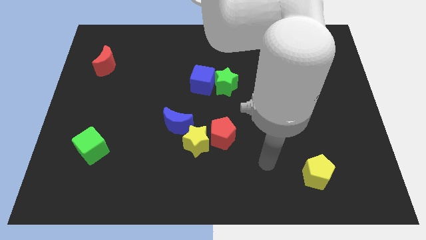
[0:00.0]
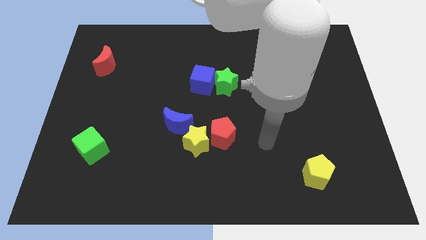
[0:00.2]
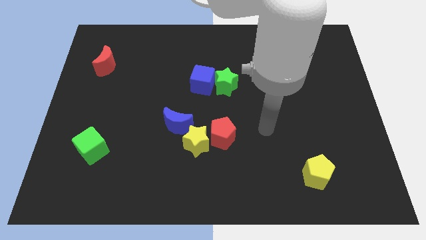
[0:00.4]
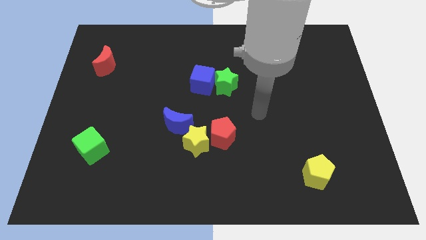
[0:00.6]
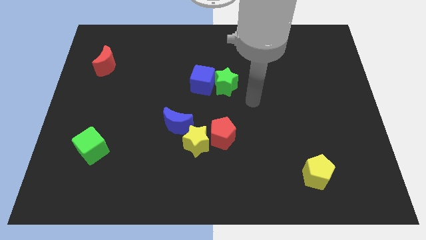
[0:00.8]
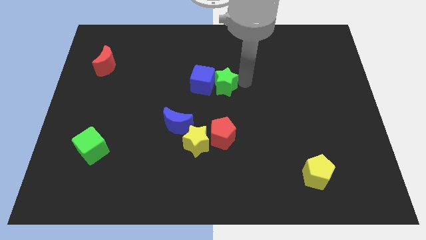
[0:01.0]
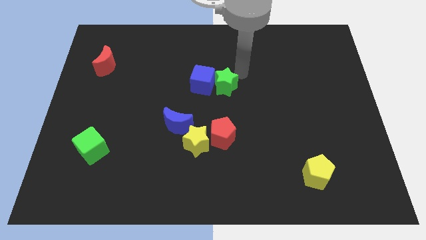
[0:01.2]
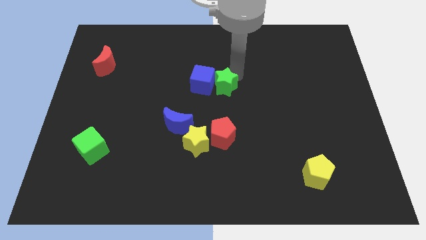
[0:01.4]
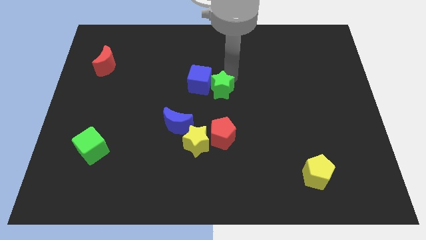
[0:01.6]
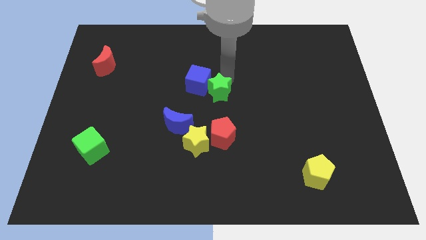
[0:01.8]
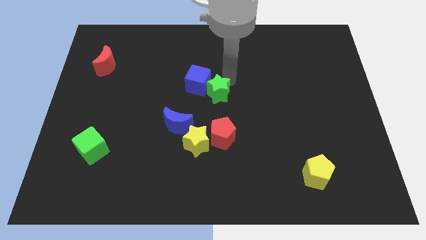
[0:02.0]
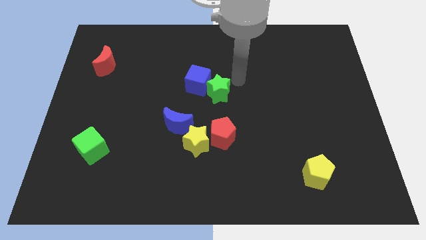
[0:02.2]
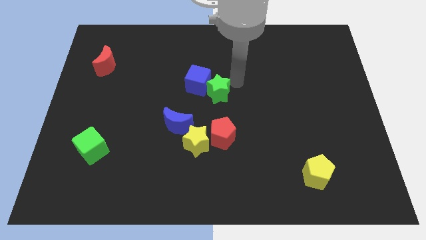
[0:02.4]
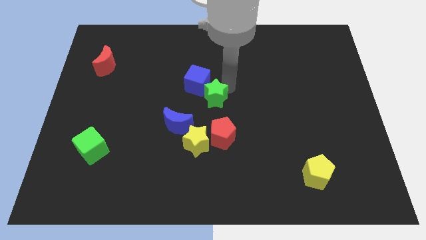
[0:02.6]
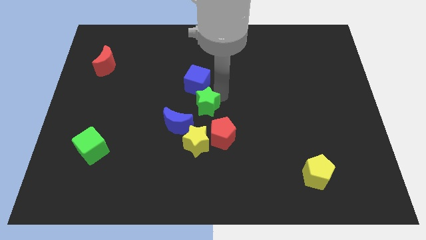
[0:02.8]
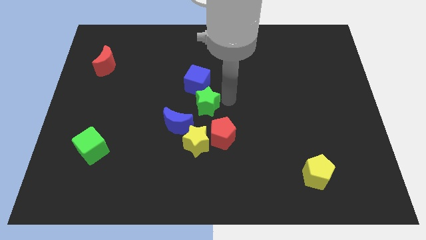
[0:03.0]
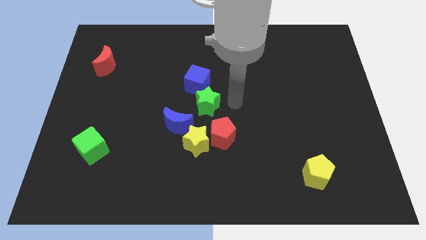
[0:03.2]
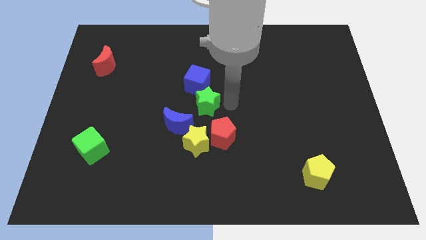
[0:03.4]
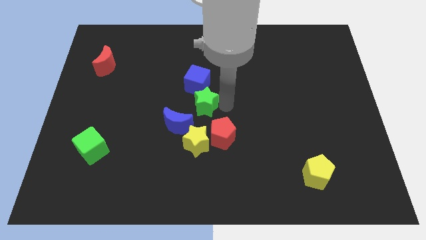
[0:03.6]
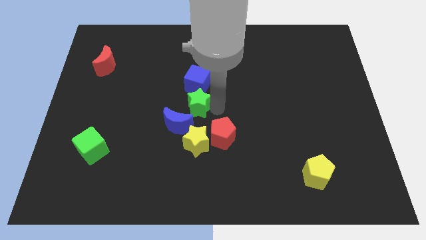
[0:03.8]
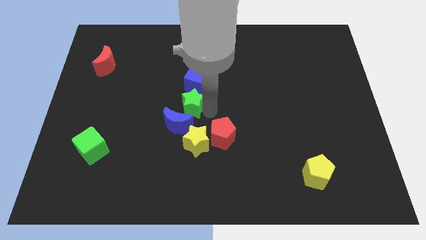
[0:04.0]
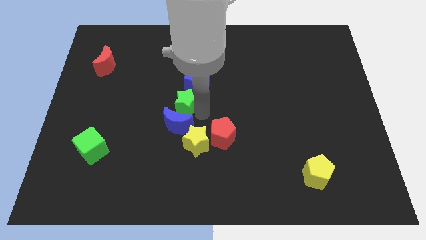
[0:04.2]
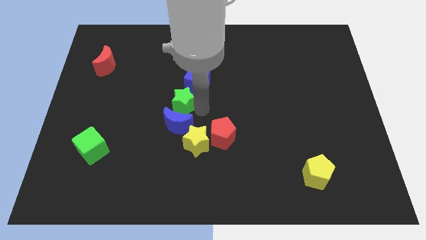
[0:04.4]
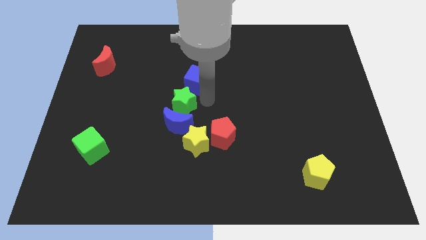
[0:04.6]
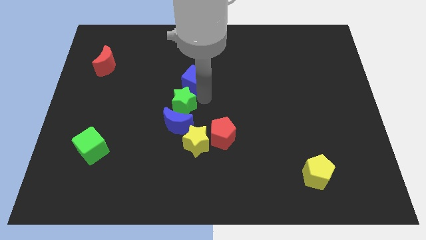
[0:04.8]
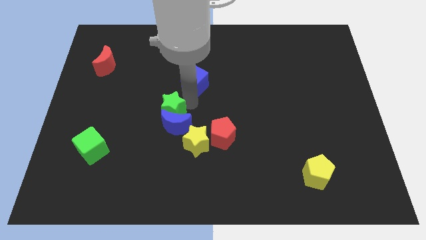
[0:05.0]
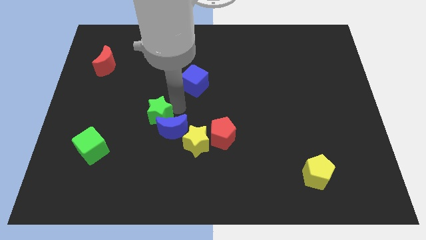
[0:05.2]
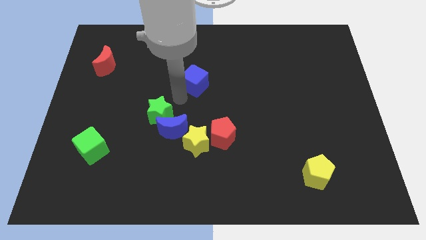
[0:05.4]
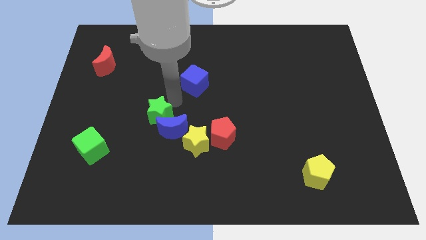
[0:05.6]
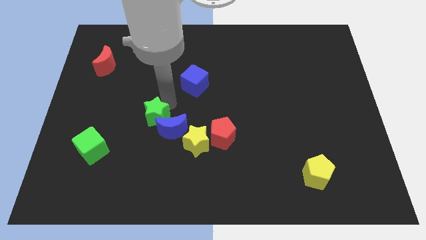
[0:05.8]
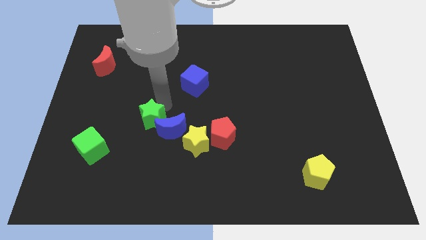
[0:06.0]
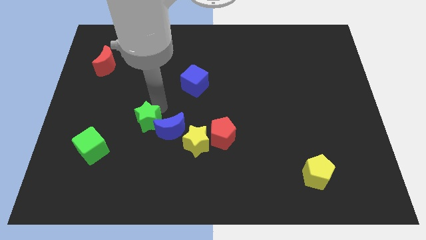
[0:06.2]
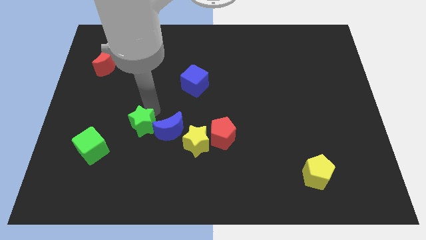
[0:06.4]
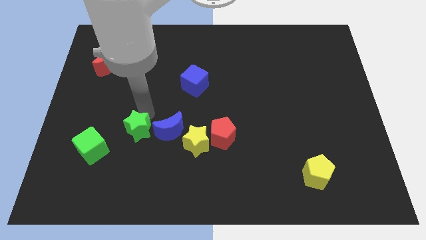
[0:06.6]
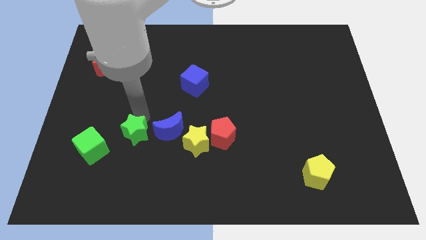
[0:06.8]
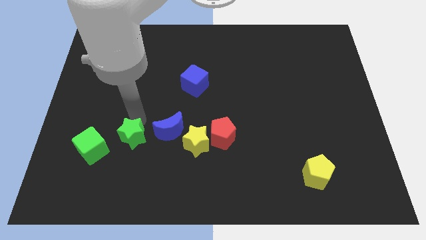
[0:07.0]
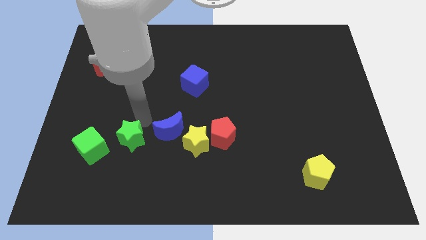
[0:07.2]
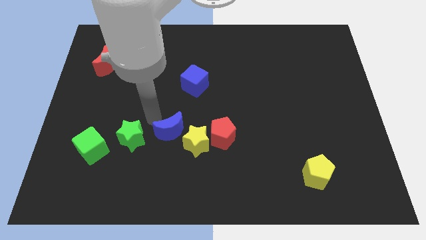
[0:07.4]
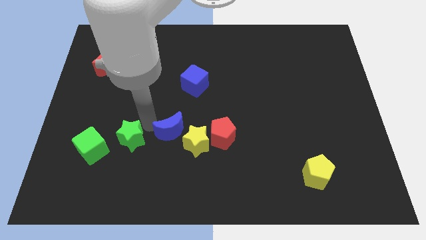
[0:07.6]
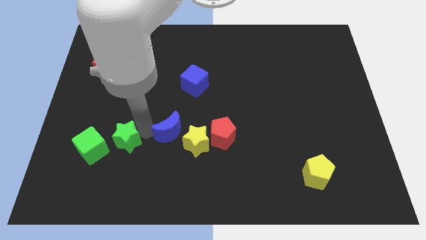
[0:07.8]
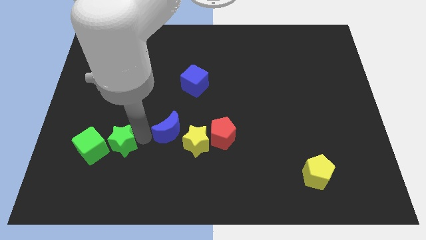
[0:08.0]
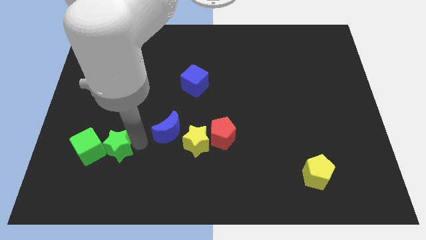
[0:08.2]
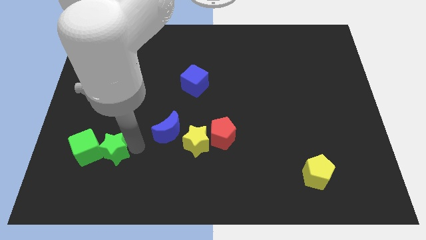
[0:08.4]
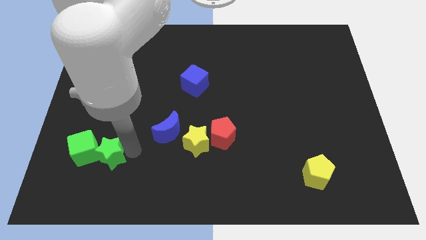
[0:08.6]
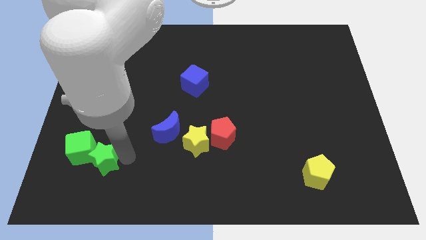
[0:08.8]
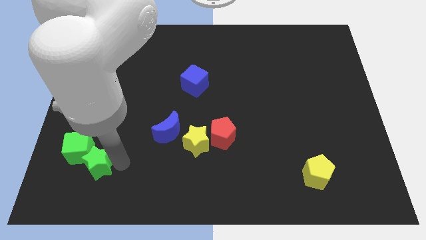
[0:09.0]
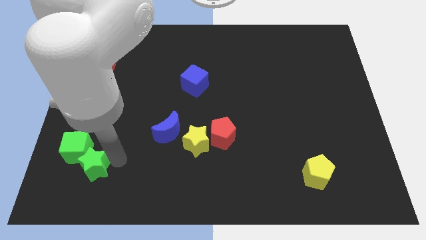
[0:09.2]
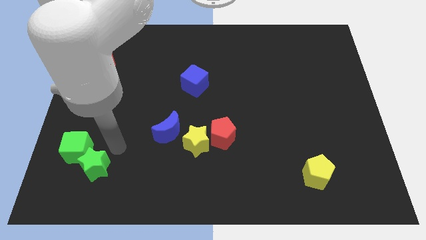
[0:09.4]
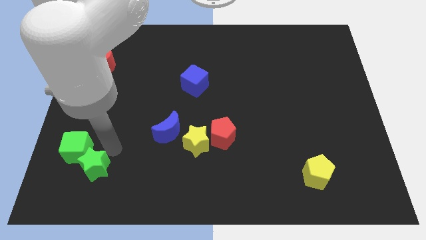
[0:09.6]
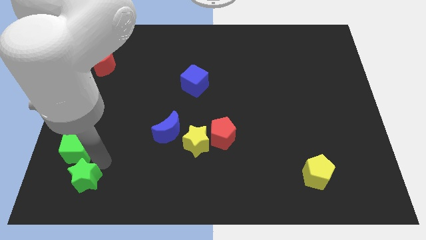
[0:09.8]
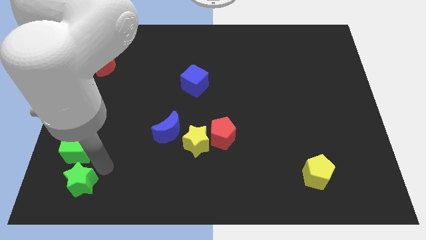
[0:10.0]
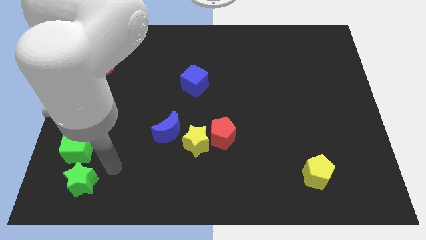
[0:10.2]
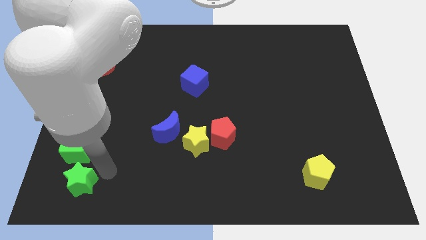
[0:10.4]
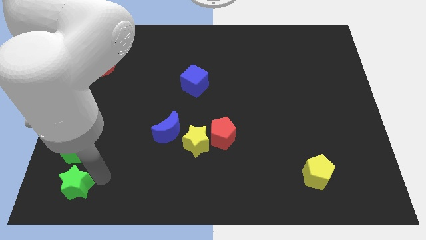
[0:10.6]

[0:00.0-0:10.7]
push the green star to the lower left corner

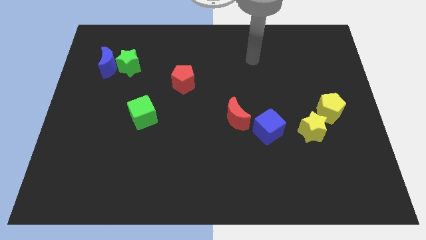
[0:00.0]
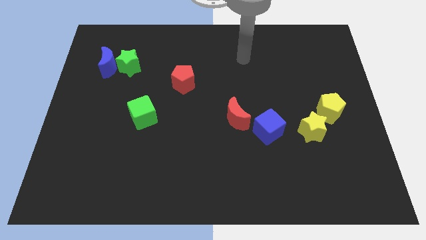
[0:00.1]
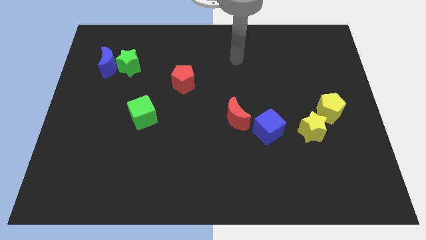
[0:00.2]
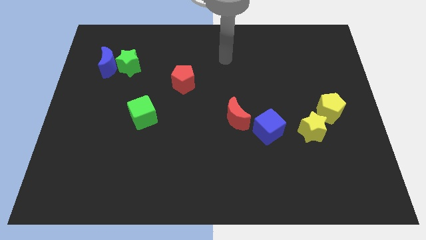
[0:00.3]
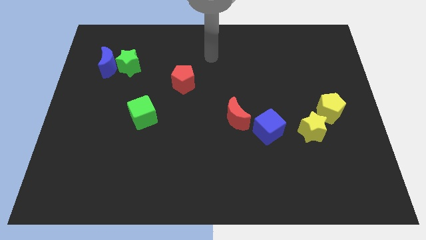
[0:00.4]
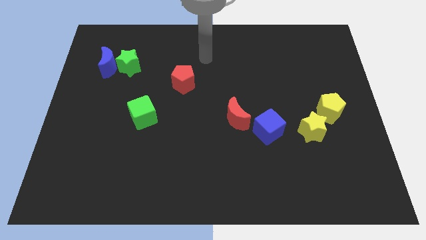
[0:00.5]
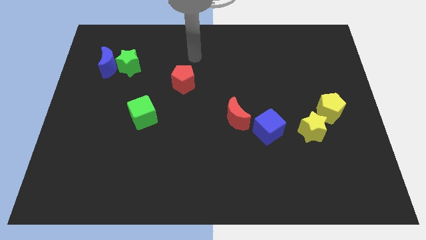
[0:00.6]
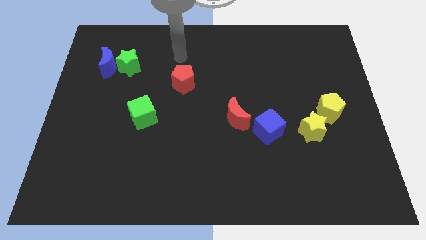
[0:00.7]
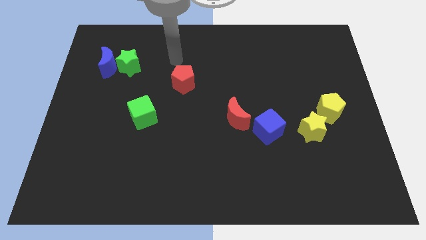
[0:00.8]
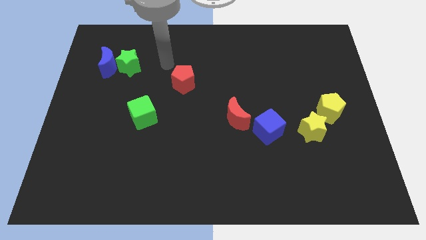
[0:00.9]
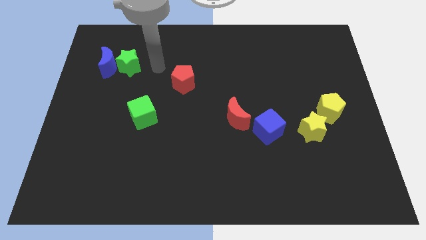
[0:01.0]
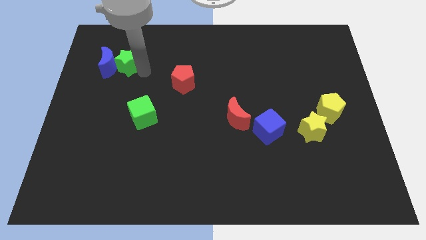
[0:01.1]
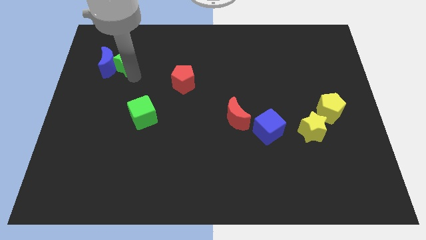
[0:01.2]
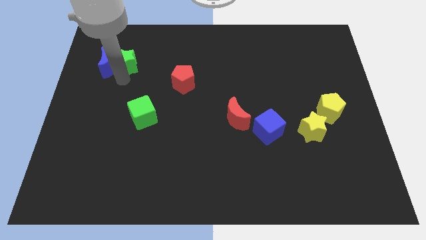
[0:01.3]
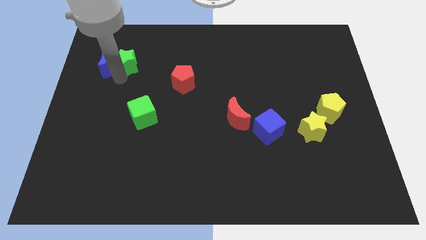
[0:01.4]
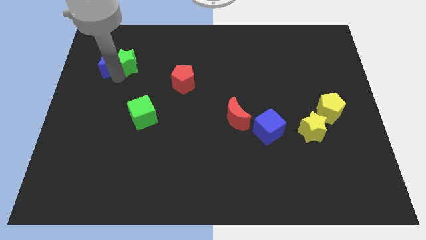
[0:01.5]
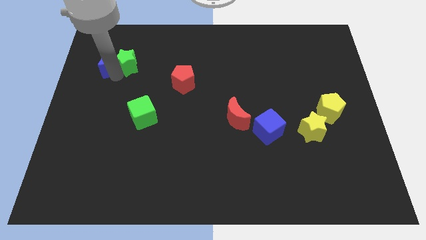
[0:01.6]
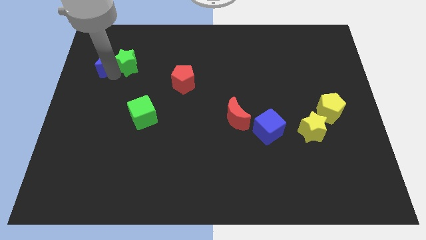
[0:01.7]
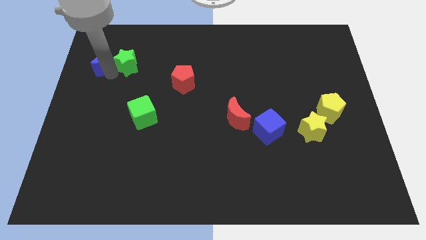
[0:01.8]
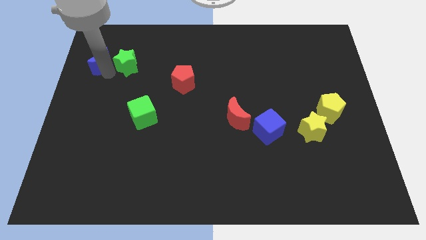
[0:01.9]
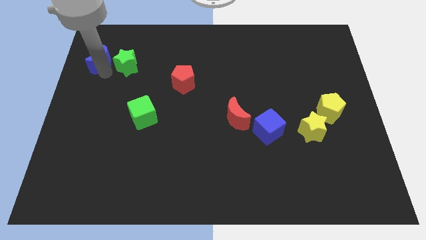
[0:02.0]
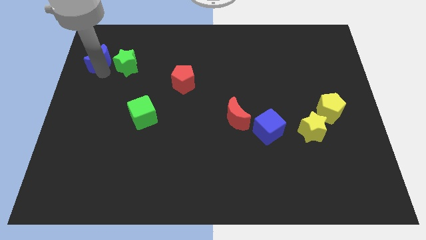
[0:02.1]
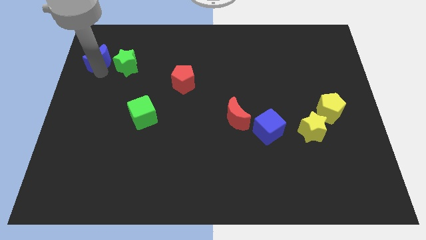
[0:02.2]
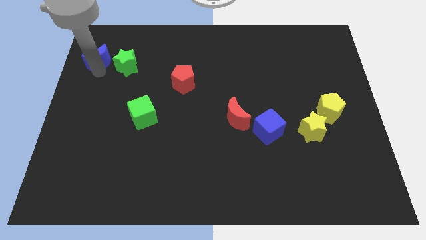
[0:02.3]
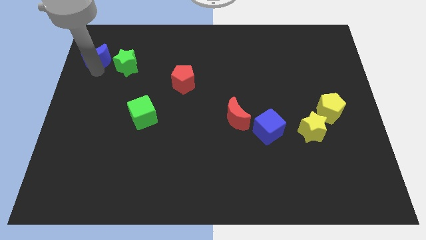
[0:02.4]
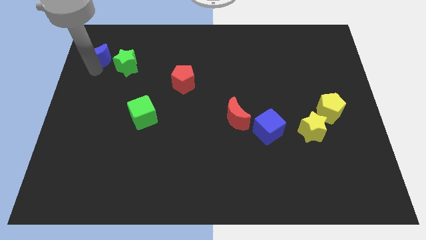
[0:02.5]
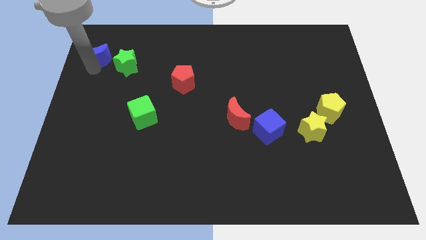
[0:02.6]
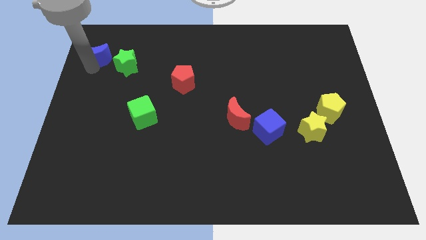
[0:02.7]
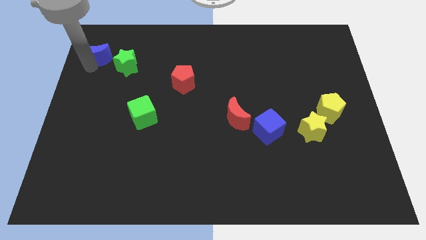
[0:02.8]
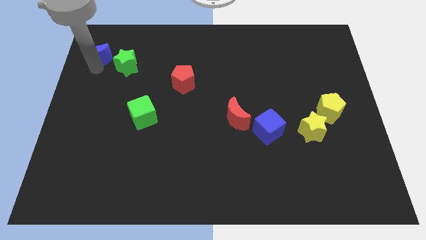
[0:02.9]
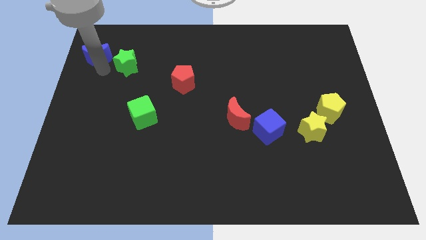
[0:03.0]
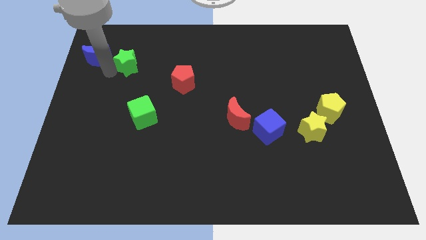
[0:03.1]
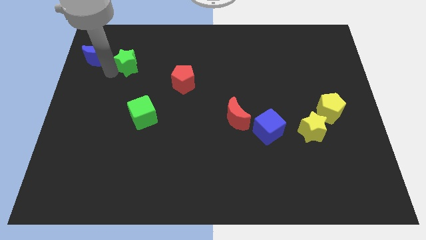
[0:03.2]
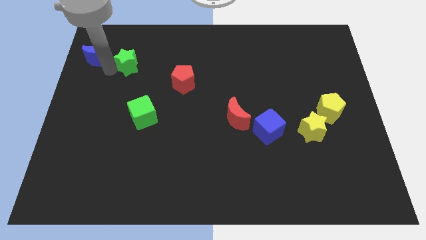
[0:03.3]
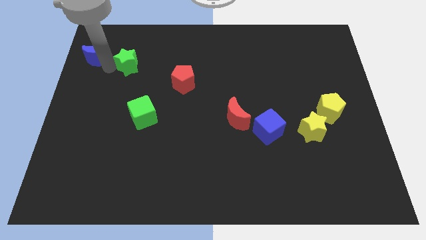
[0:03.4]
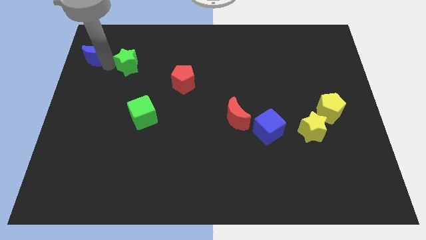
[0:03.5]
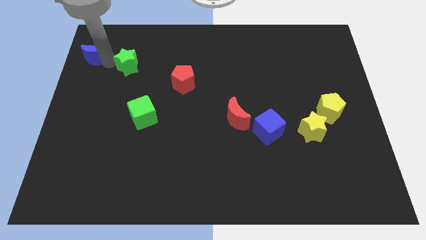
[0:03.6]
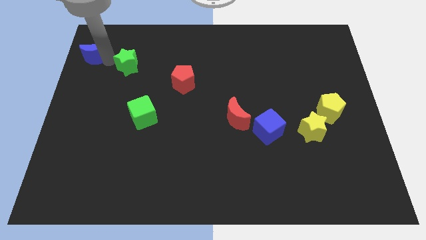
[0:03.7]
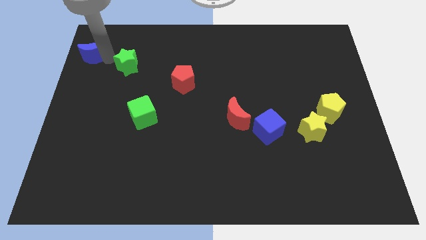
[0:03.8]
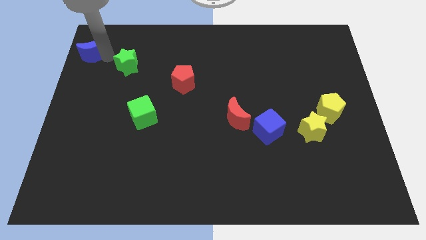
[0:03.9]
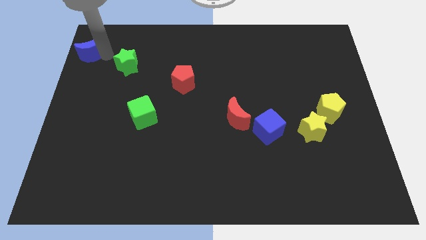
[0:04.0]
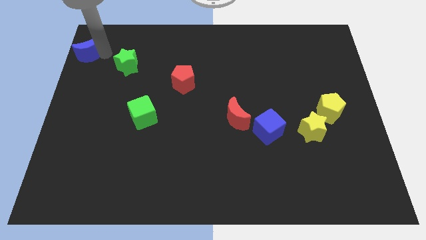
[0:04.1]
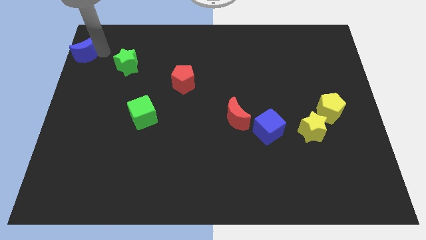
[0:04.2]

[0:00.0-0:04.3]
slide the blue moon to the top left corner
